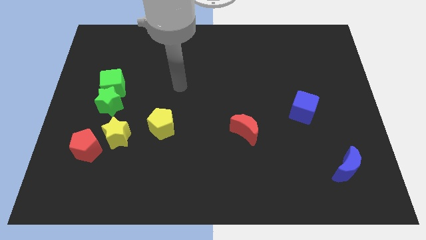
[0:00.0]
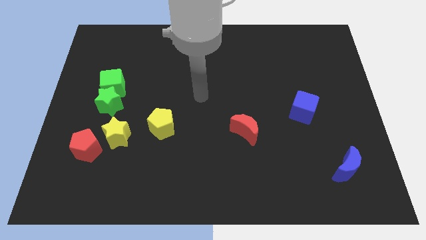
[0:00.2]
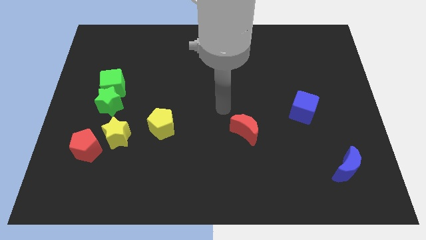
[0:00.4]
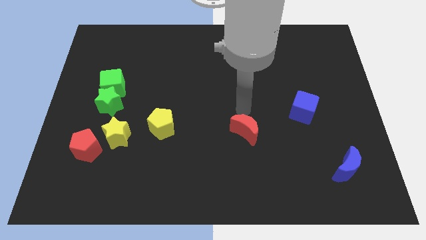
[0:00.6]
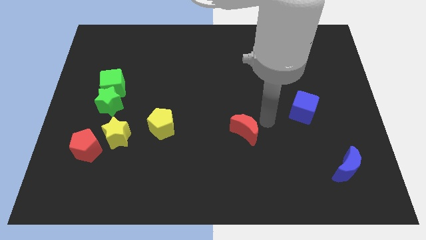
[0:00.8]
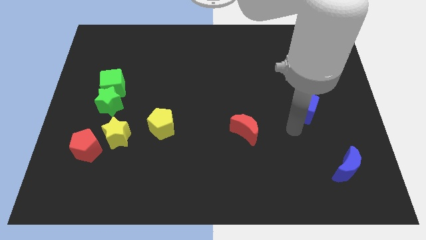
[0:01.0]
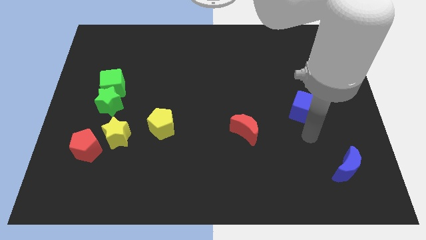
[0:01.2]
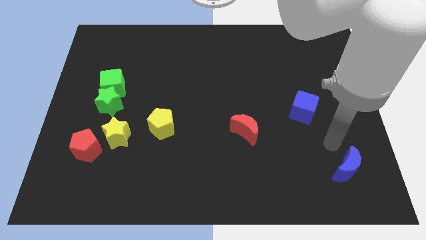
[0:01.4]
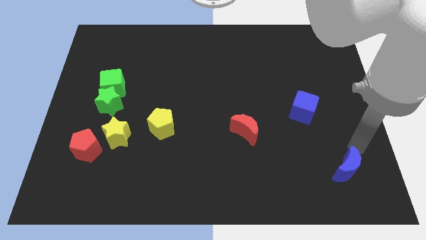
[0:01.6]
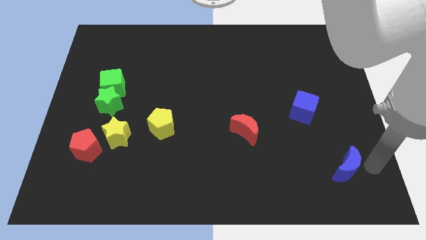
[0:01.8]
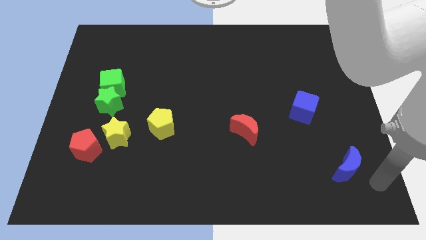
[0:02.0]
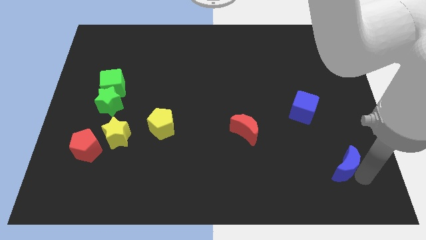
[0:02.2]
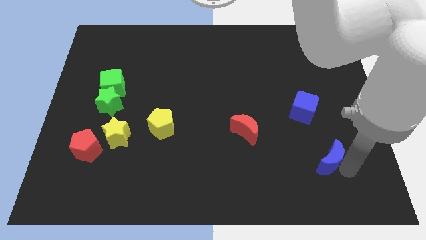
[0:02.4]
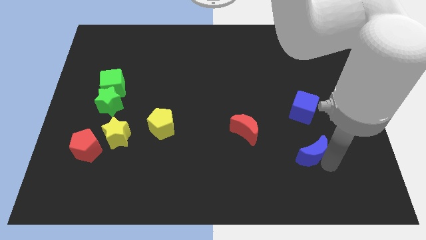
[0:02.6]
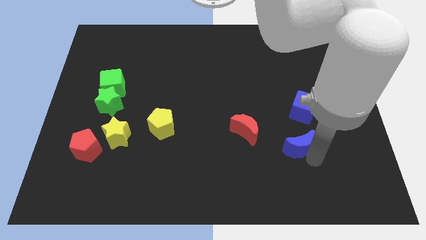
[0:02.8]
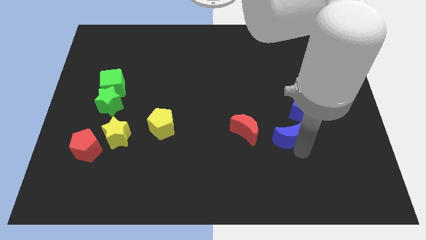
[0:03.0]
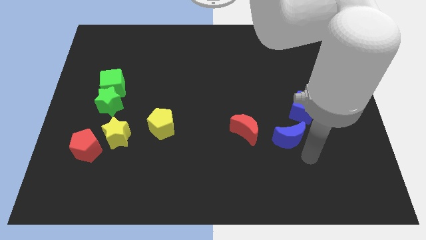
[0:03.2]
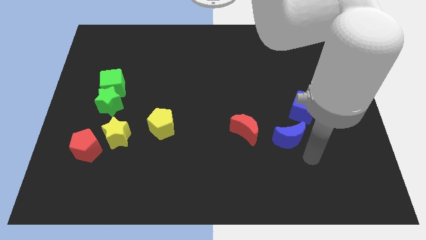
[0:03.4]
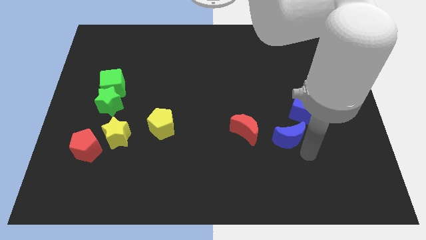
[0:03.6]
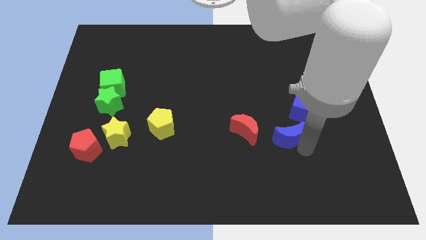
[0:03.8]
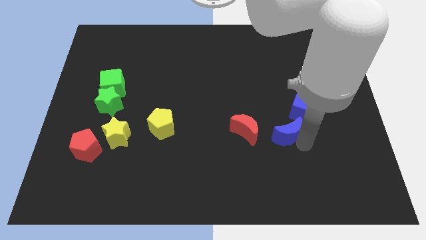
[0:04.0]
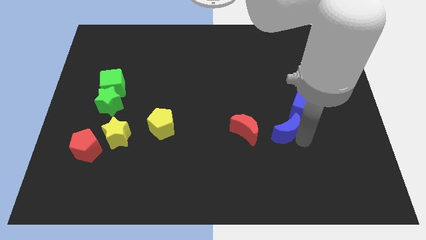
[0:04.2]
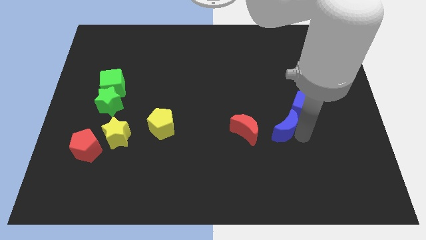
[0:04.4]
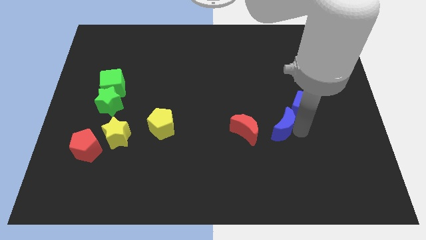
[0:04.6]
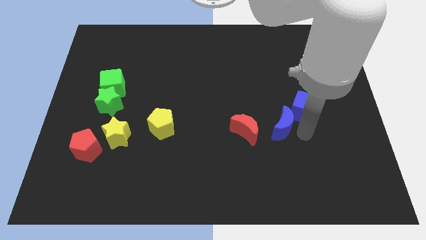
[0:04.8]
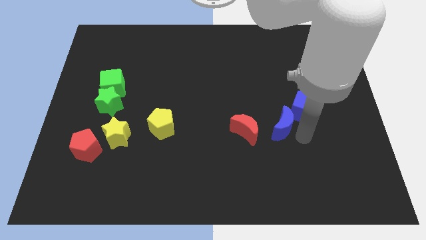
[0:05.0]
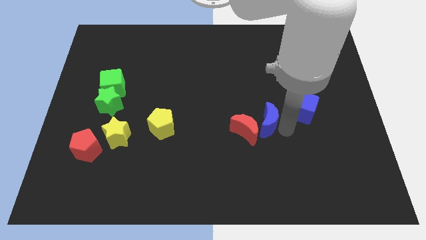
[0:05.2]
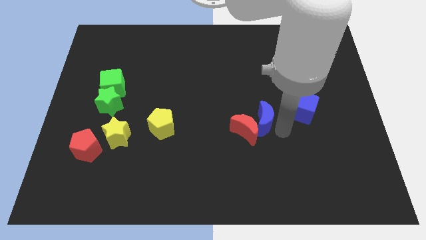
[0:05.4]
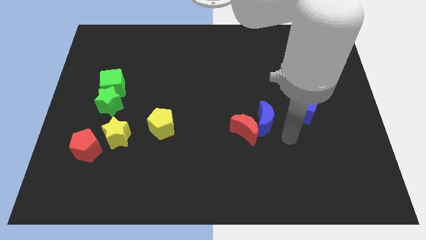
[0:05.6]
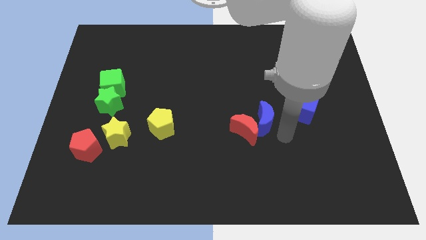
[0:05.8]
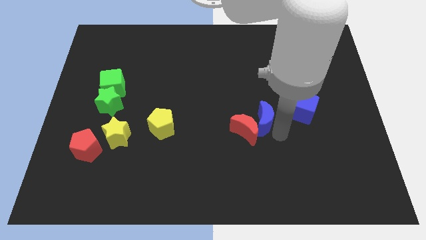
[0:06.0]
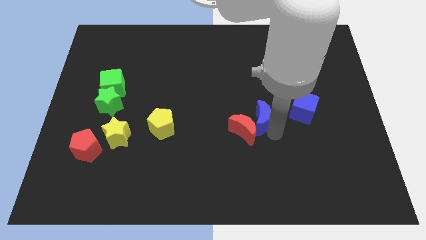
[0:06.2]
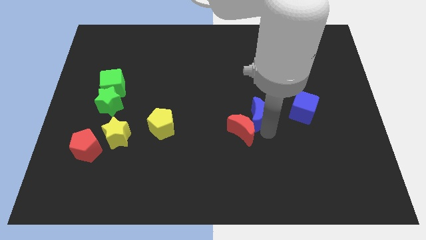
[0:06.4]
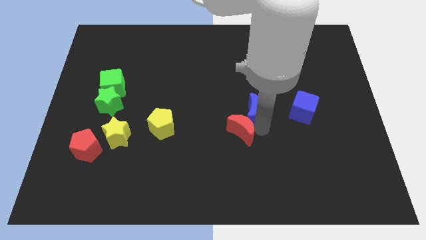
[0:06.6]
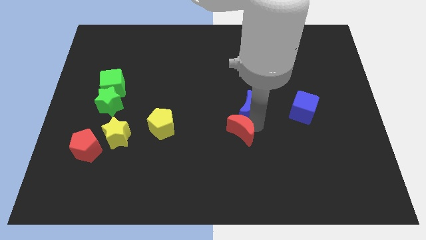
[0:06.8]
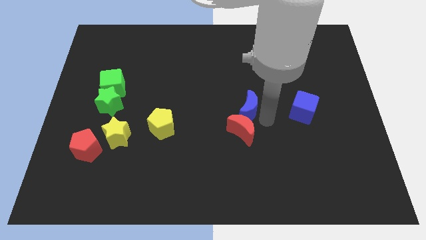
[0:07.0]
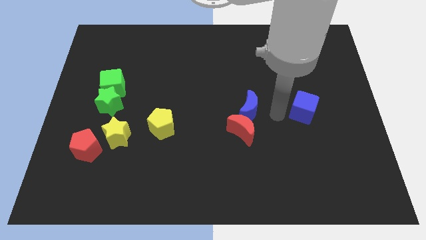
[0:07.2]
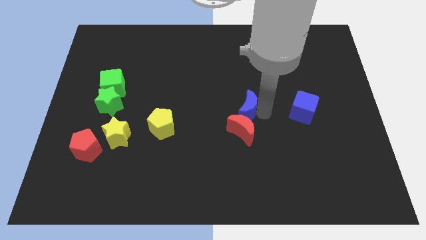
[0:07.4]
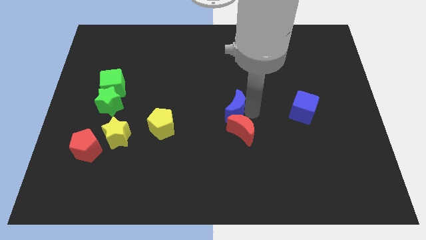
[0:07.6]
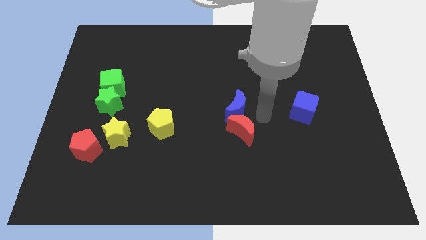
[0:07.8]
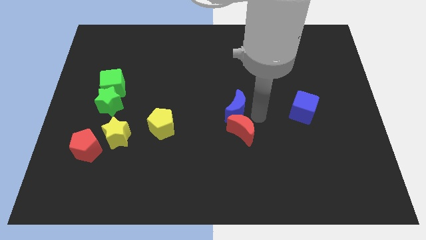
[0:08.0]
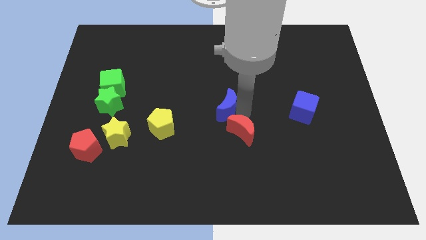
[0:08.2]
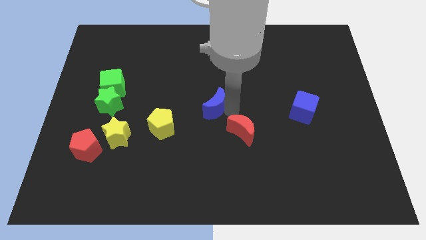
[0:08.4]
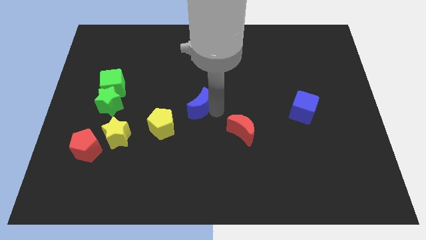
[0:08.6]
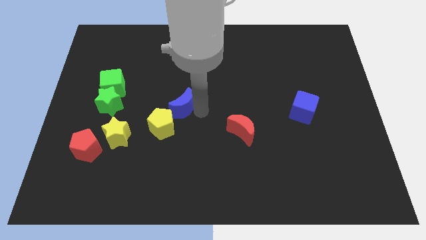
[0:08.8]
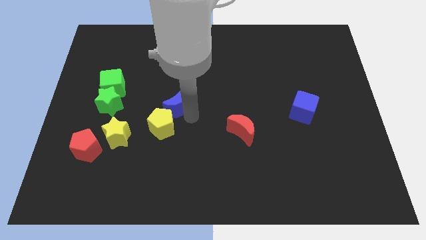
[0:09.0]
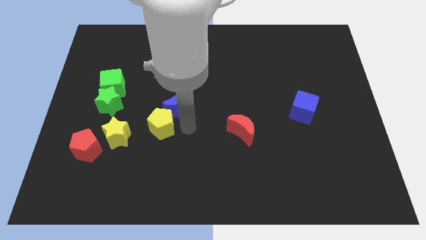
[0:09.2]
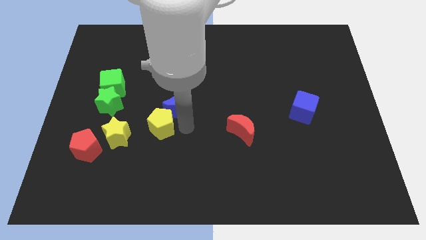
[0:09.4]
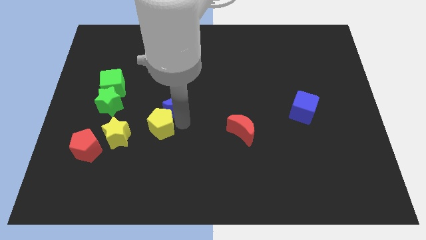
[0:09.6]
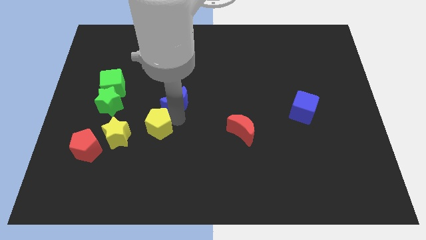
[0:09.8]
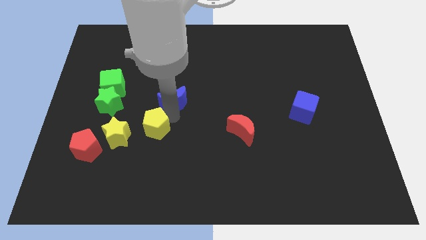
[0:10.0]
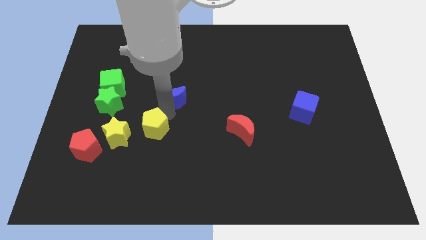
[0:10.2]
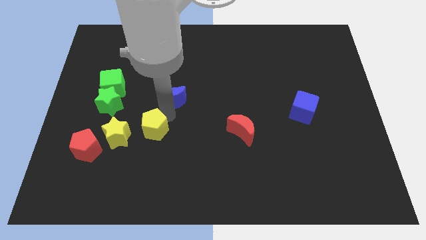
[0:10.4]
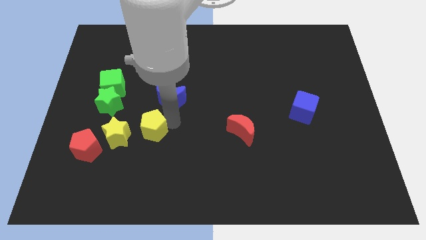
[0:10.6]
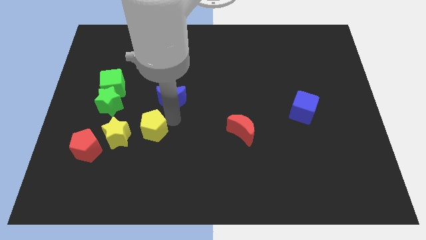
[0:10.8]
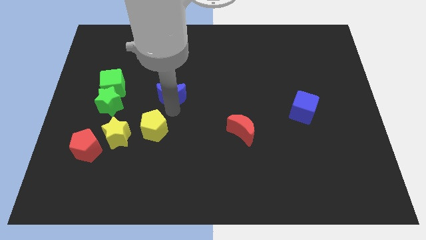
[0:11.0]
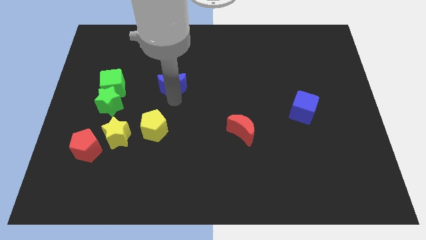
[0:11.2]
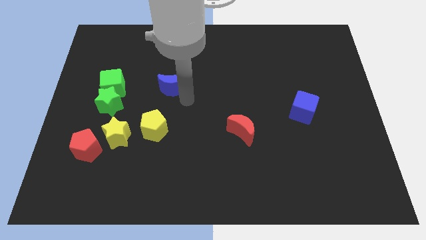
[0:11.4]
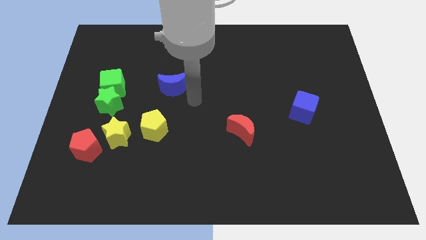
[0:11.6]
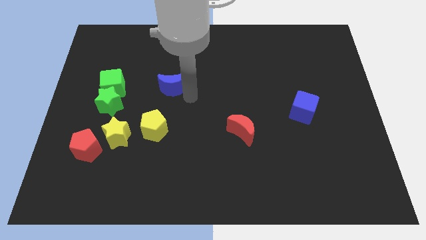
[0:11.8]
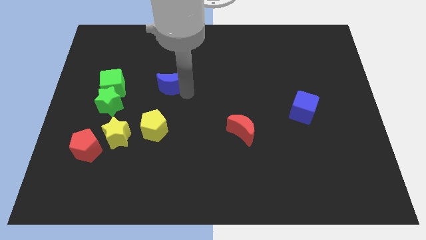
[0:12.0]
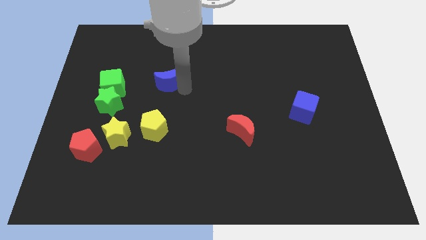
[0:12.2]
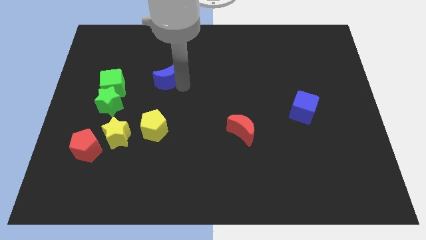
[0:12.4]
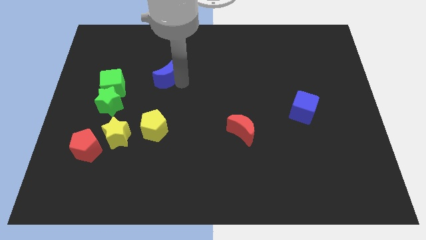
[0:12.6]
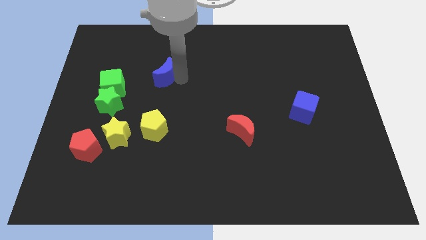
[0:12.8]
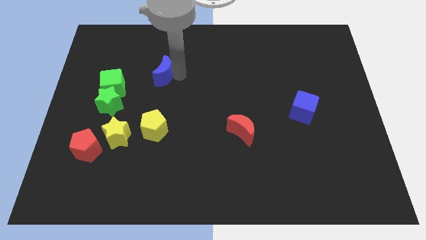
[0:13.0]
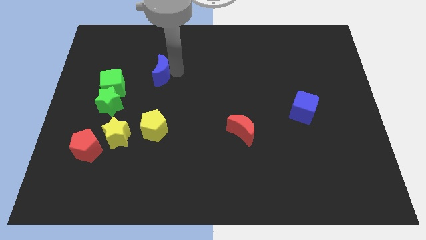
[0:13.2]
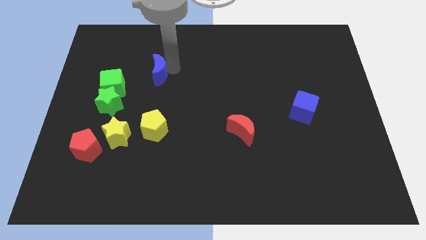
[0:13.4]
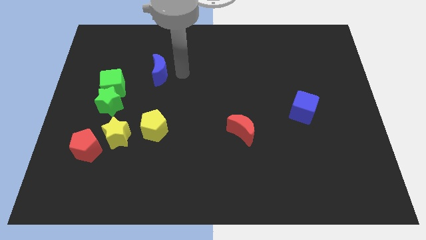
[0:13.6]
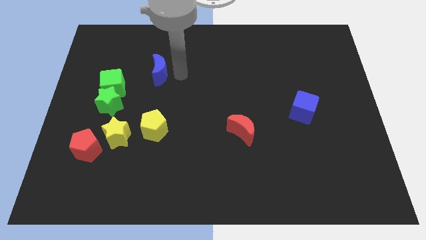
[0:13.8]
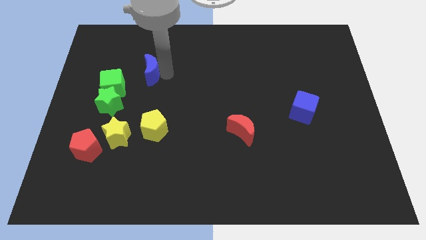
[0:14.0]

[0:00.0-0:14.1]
put the blue moon to the top right of the green cube

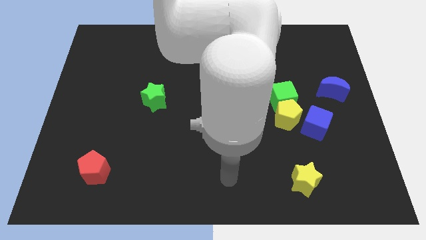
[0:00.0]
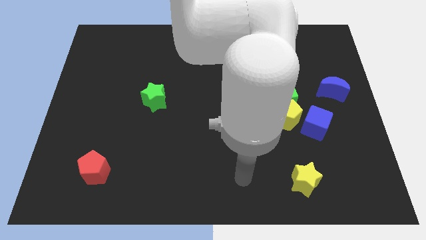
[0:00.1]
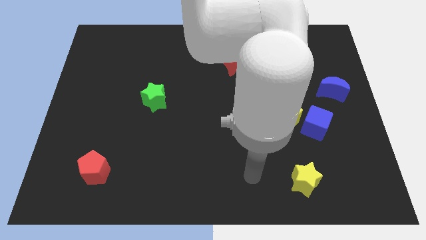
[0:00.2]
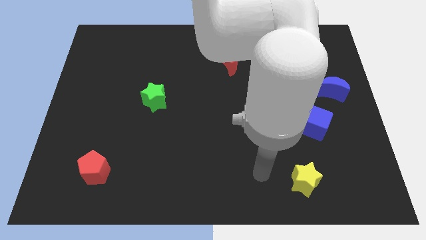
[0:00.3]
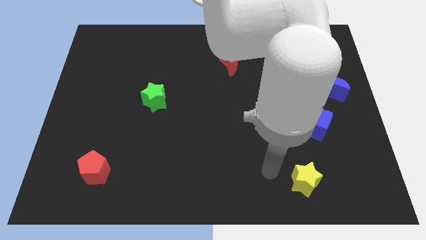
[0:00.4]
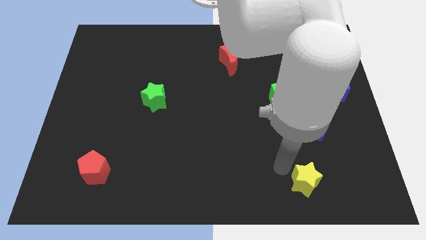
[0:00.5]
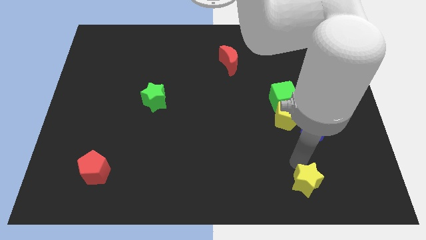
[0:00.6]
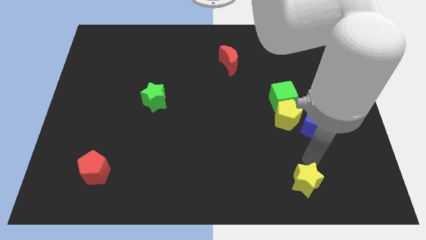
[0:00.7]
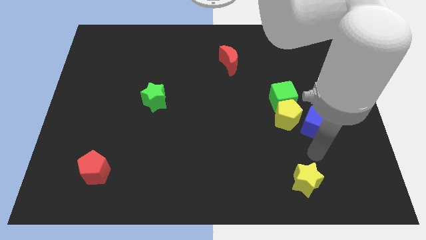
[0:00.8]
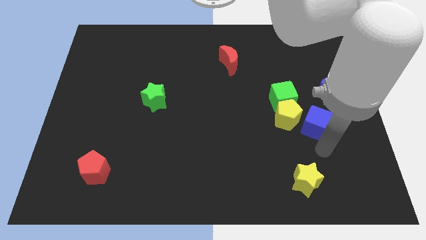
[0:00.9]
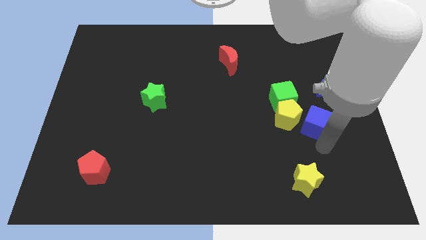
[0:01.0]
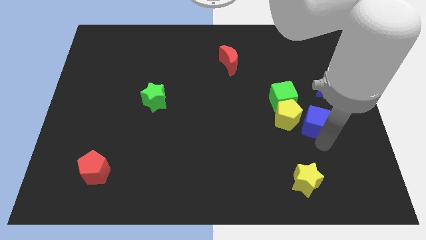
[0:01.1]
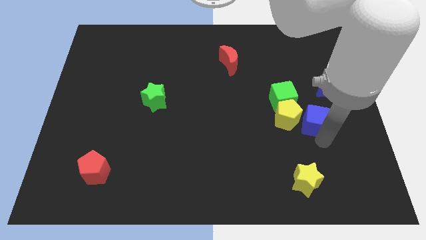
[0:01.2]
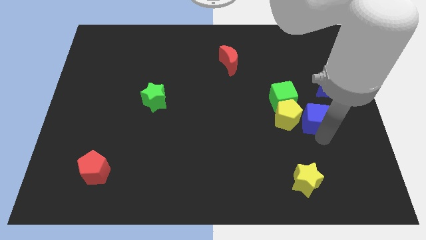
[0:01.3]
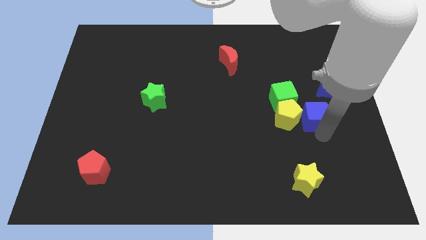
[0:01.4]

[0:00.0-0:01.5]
slide the blue cube to the top right side of the yellow pentagon
